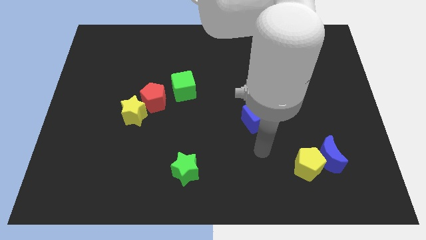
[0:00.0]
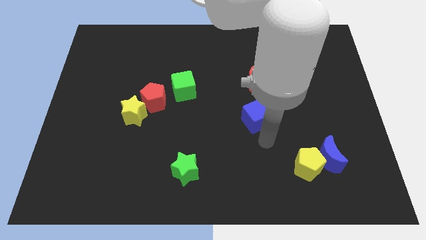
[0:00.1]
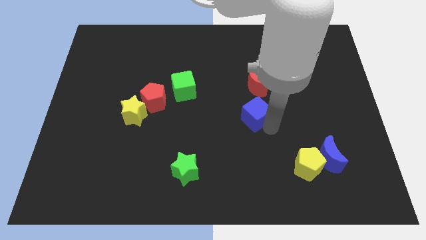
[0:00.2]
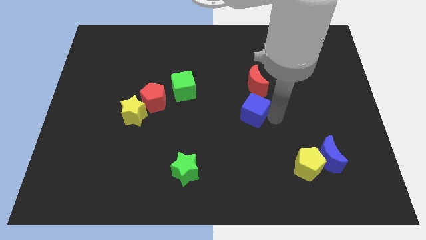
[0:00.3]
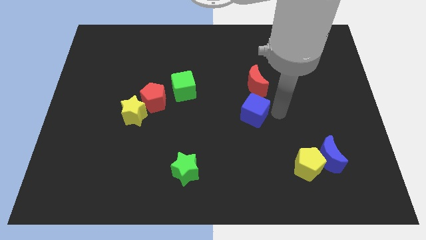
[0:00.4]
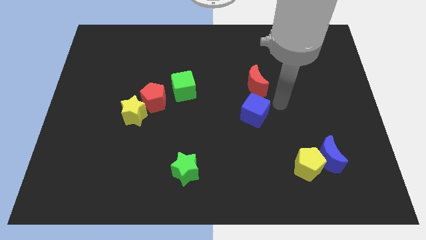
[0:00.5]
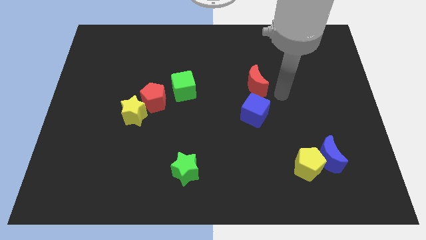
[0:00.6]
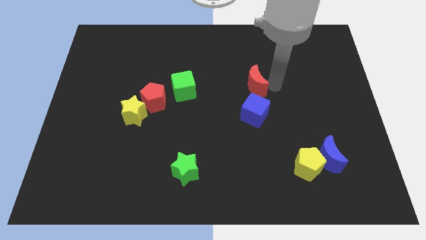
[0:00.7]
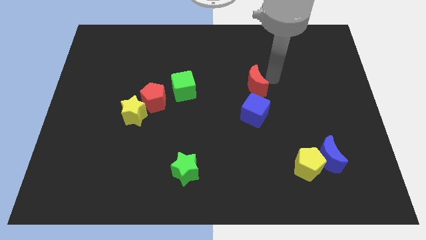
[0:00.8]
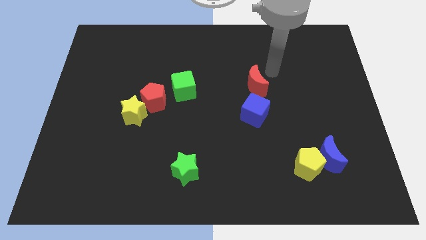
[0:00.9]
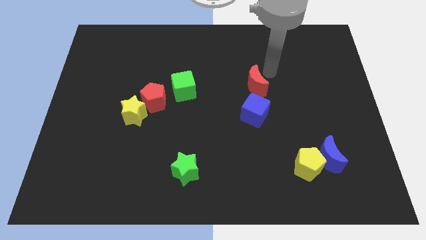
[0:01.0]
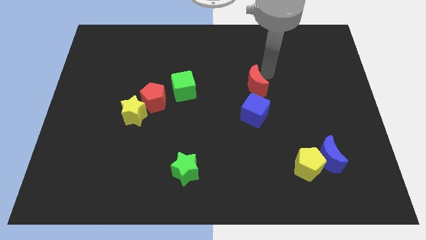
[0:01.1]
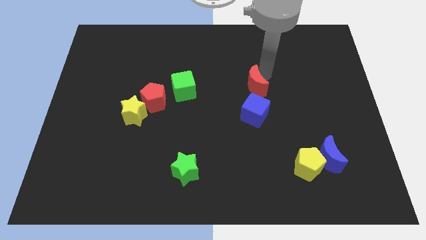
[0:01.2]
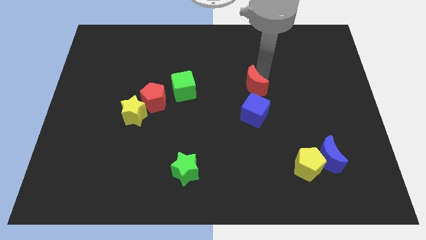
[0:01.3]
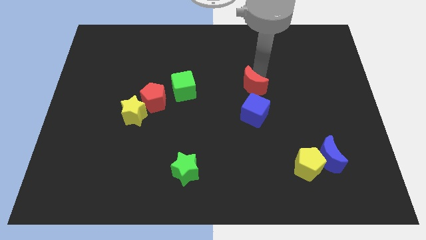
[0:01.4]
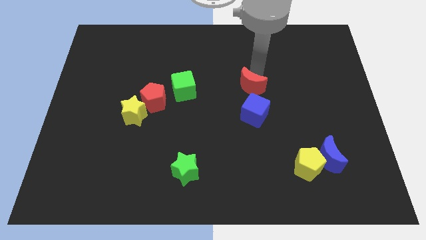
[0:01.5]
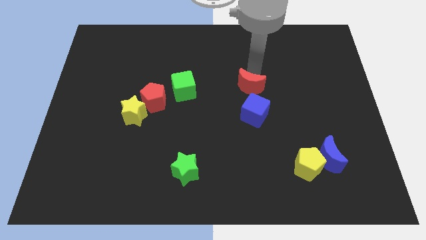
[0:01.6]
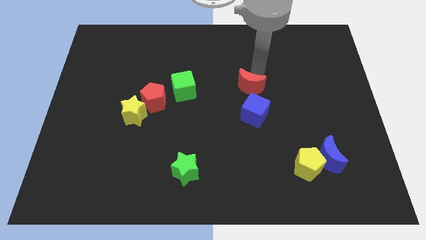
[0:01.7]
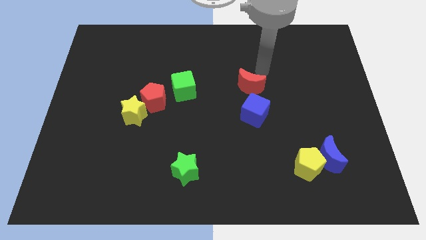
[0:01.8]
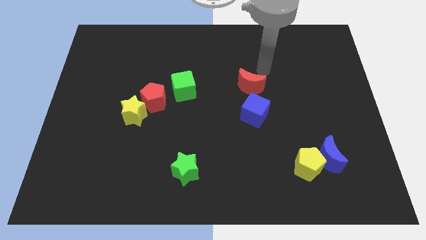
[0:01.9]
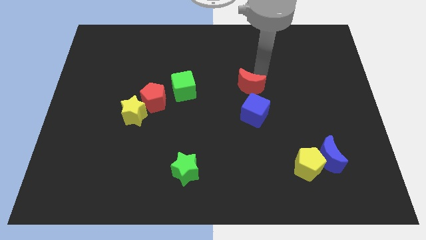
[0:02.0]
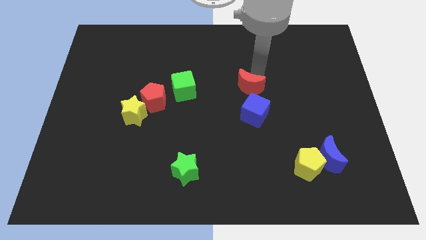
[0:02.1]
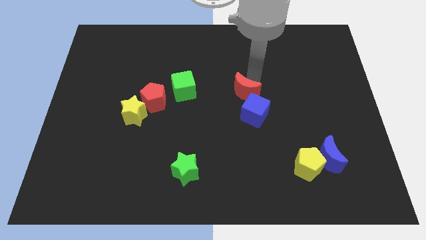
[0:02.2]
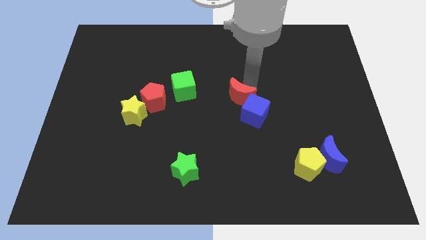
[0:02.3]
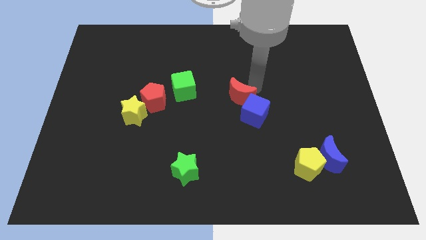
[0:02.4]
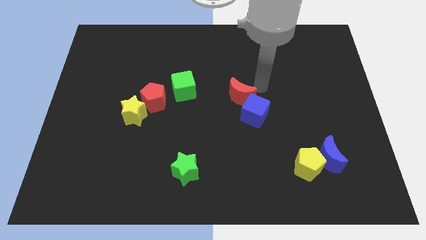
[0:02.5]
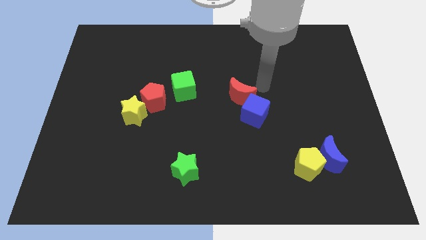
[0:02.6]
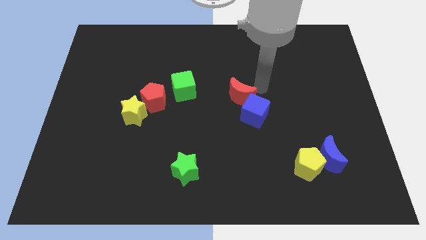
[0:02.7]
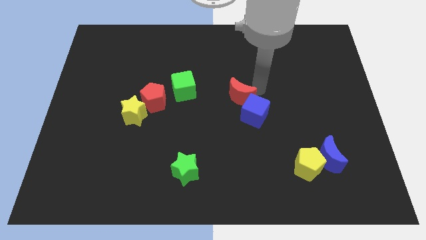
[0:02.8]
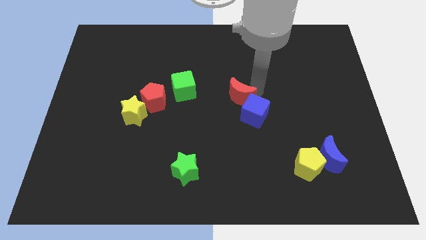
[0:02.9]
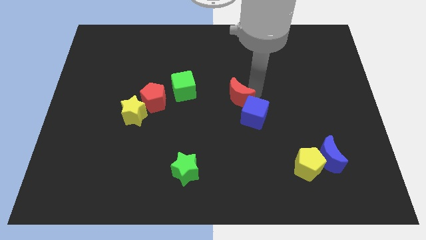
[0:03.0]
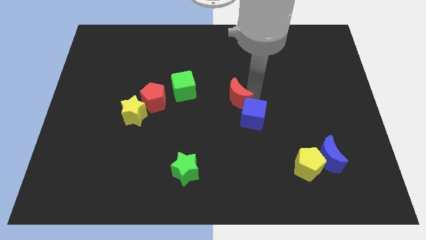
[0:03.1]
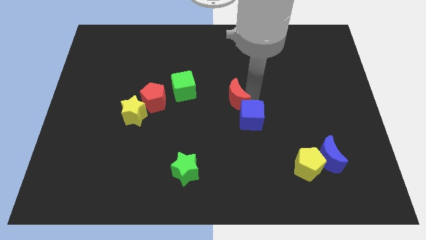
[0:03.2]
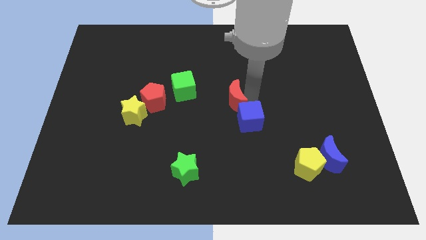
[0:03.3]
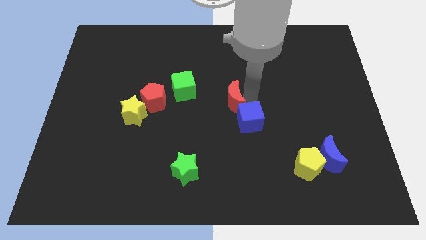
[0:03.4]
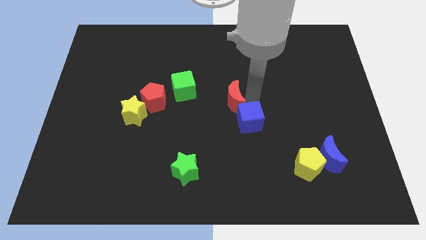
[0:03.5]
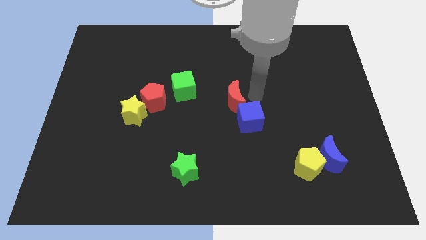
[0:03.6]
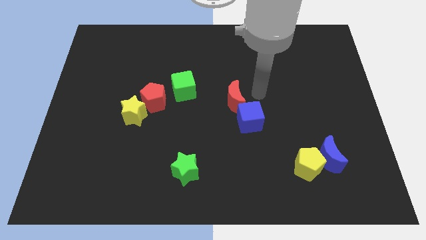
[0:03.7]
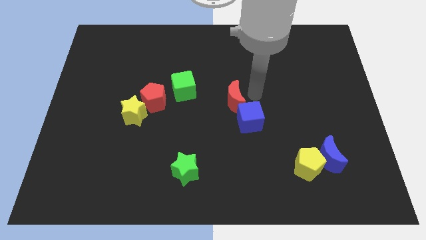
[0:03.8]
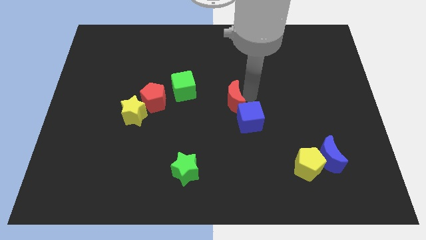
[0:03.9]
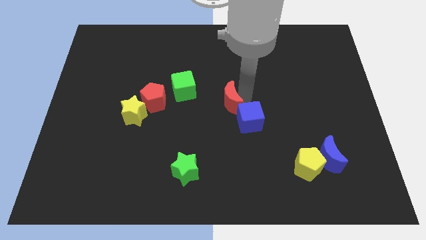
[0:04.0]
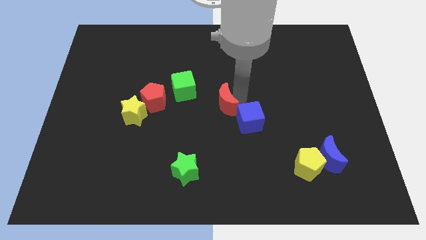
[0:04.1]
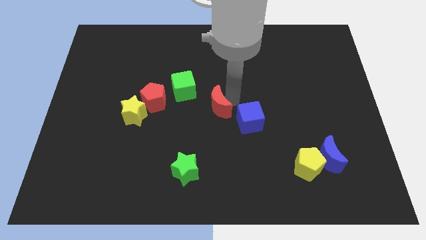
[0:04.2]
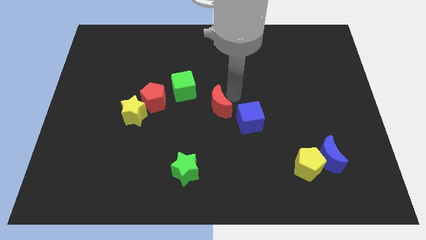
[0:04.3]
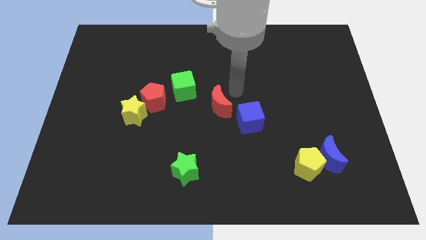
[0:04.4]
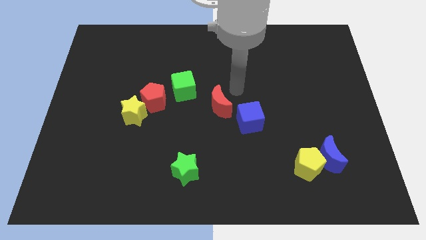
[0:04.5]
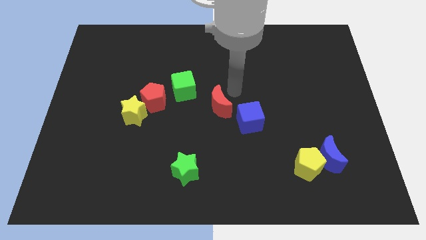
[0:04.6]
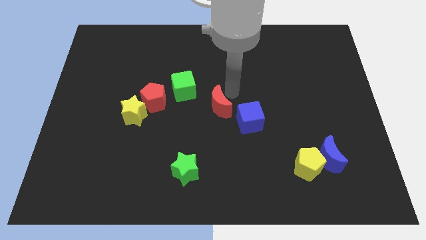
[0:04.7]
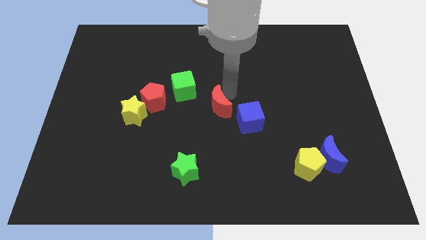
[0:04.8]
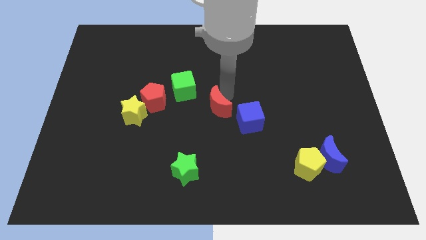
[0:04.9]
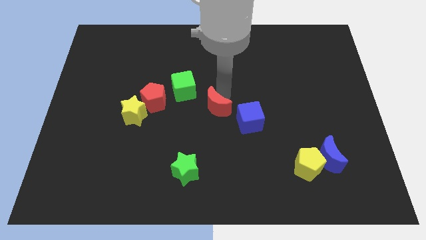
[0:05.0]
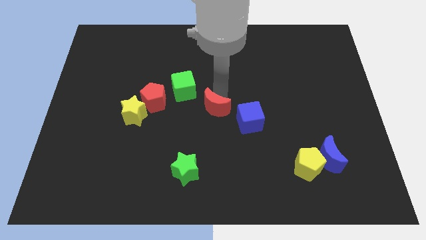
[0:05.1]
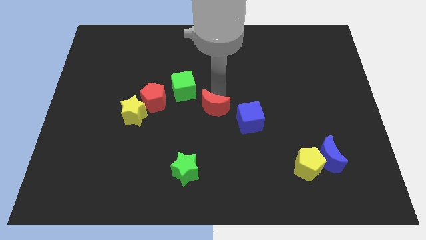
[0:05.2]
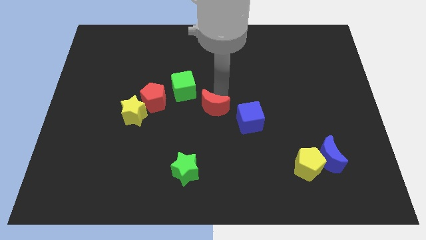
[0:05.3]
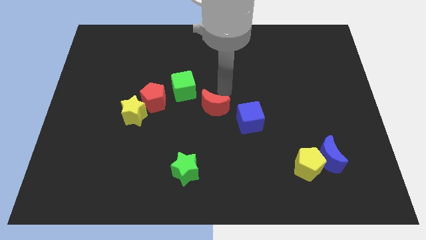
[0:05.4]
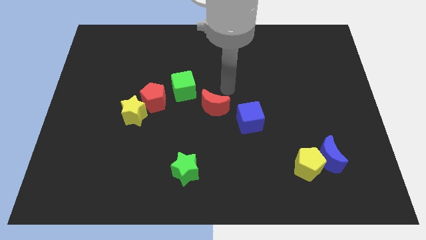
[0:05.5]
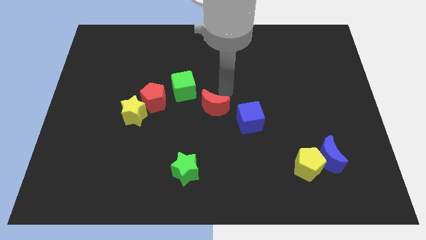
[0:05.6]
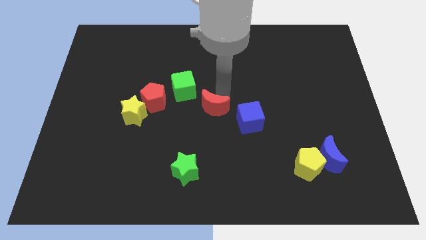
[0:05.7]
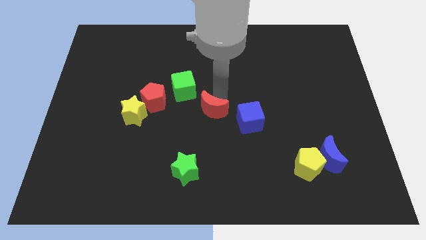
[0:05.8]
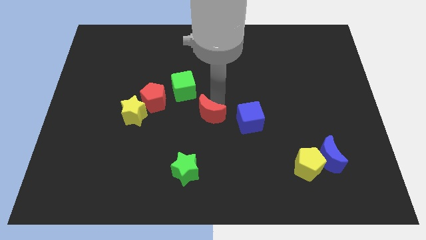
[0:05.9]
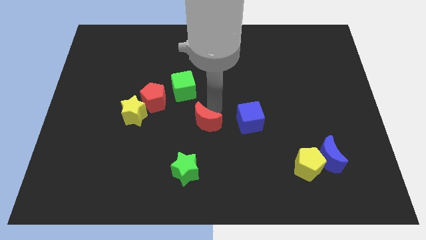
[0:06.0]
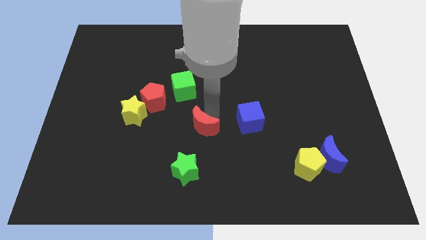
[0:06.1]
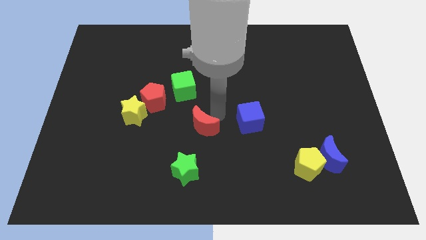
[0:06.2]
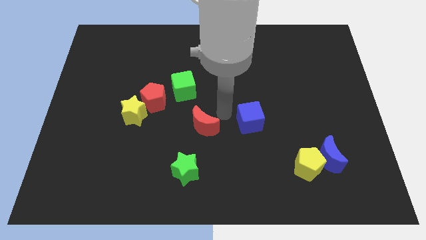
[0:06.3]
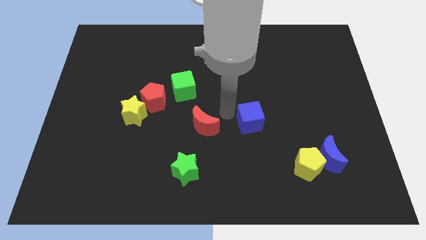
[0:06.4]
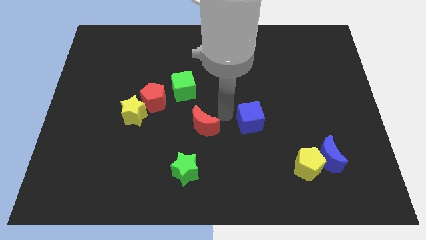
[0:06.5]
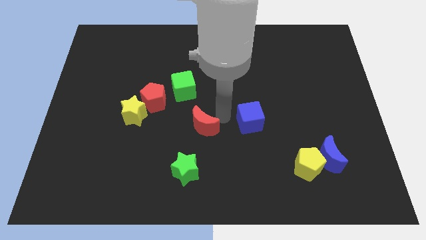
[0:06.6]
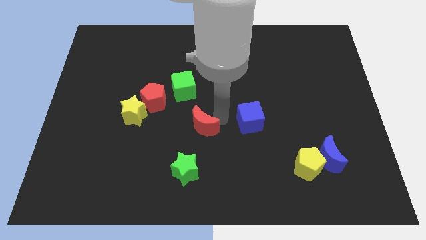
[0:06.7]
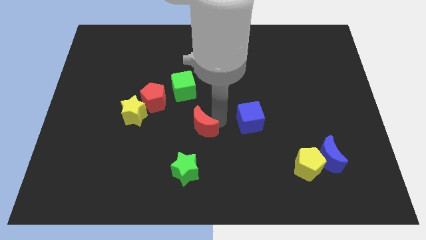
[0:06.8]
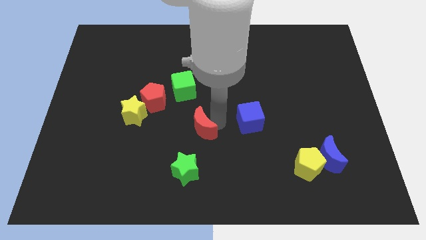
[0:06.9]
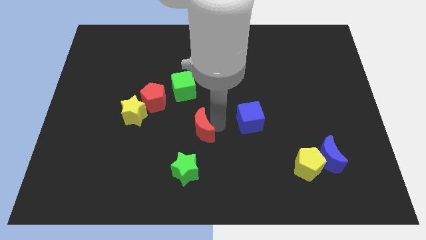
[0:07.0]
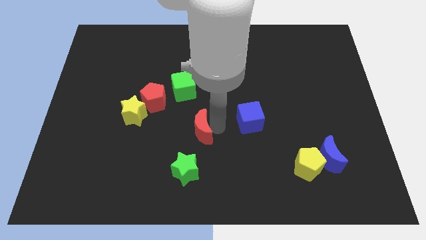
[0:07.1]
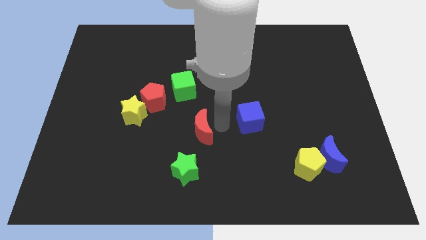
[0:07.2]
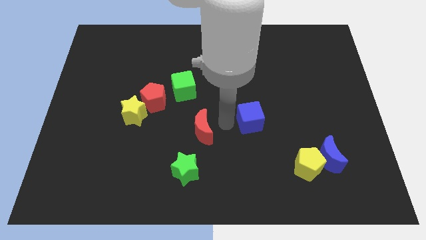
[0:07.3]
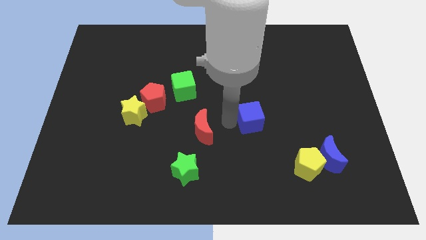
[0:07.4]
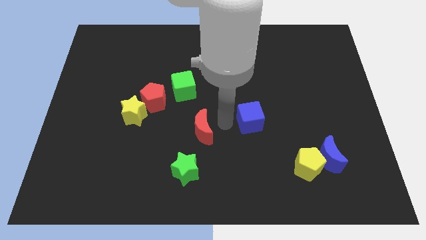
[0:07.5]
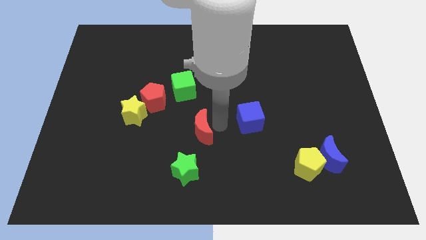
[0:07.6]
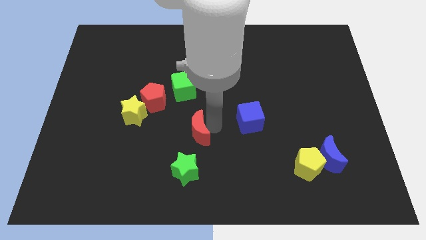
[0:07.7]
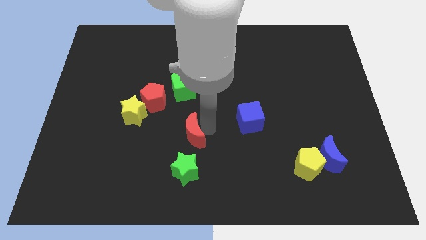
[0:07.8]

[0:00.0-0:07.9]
move the red moon diagonally down and to the left

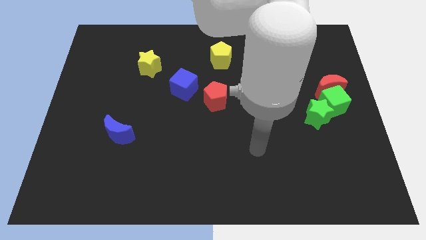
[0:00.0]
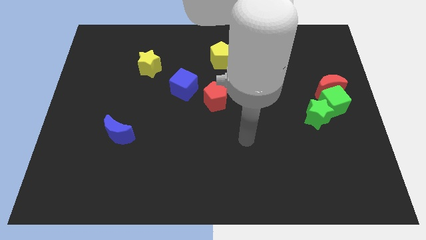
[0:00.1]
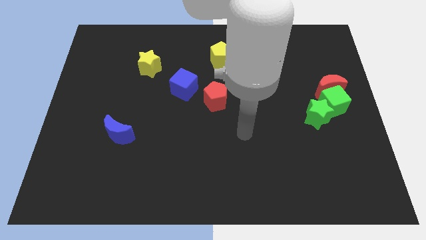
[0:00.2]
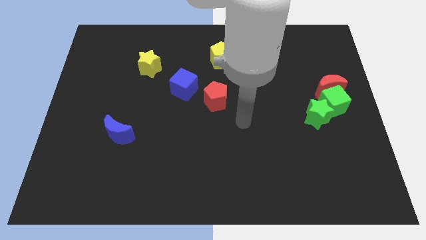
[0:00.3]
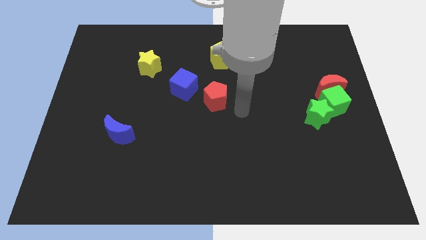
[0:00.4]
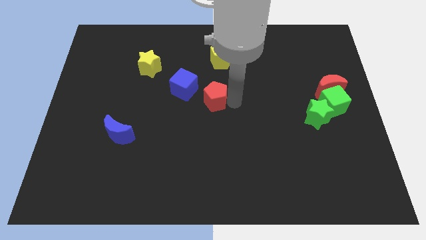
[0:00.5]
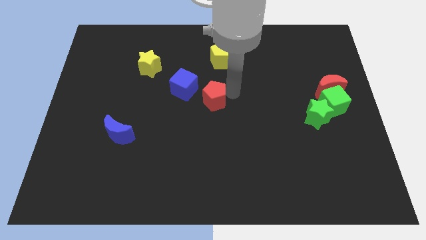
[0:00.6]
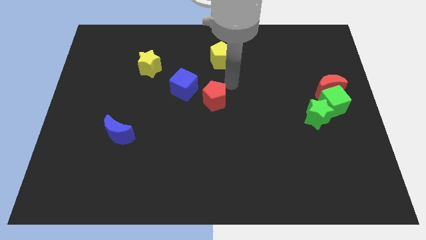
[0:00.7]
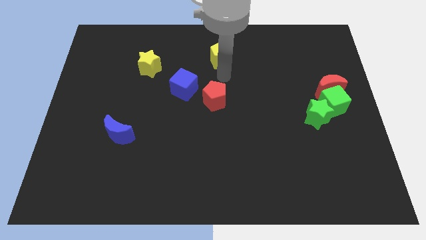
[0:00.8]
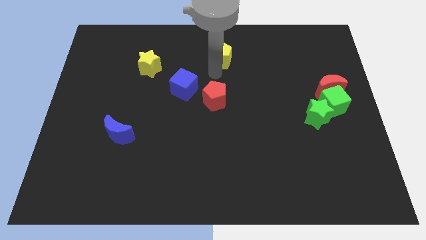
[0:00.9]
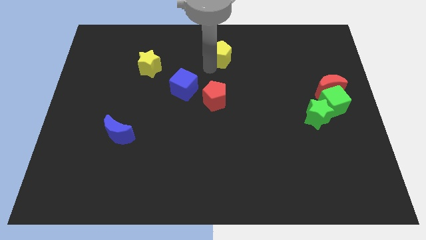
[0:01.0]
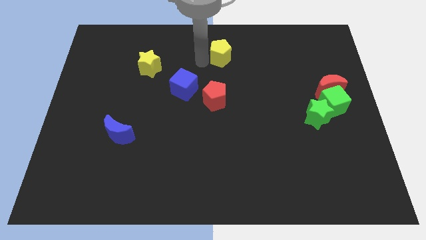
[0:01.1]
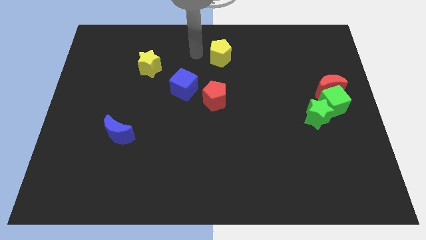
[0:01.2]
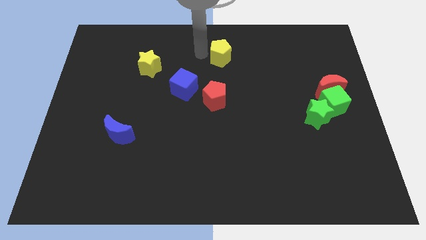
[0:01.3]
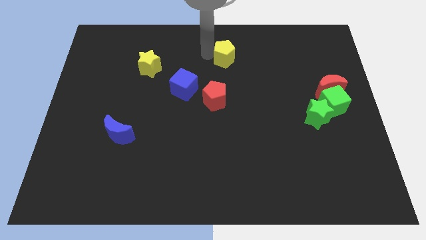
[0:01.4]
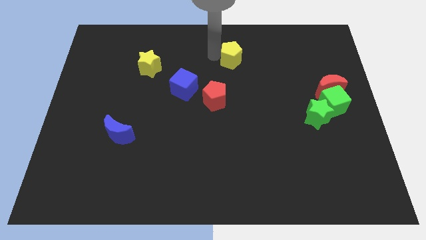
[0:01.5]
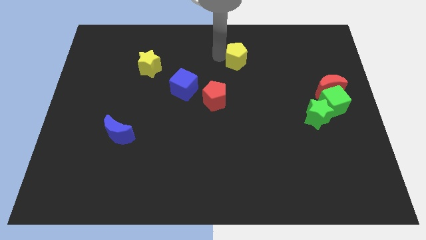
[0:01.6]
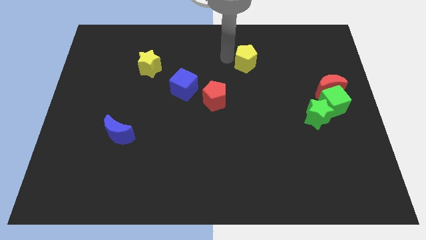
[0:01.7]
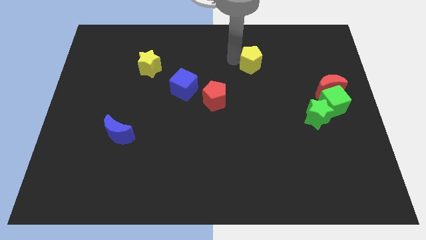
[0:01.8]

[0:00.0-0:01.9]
slightly slide the yellow pentagon to the right
